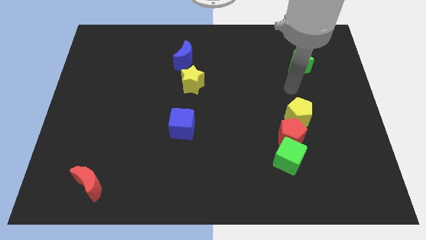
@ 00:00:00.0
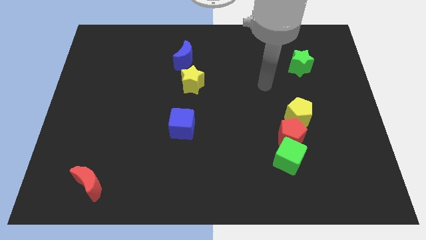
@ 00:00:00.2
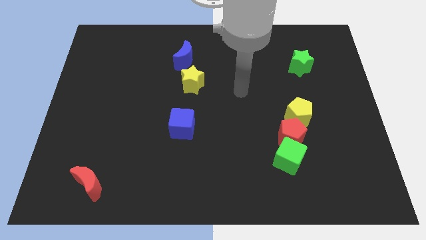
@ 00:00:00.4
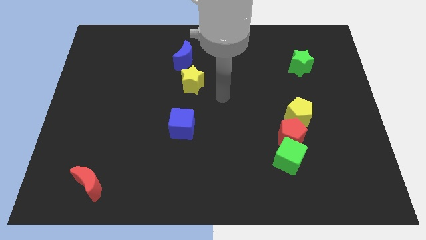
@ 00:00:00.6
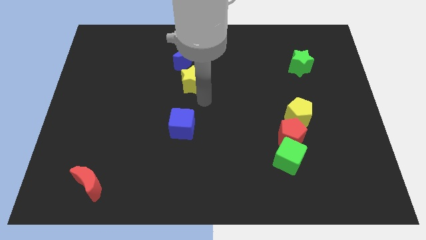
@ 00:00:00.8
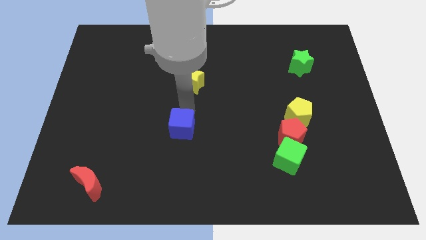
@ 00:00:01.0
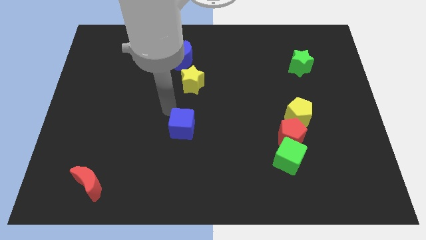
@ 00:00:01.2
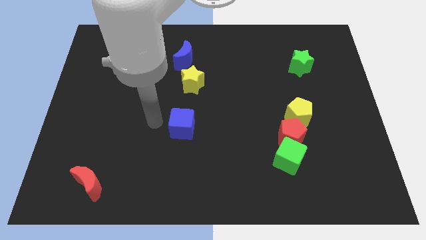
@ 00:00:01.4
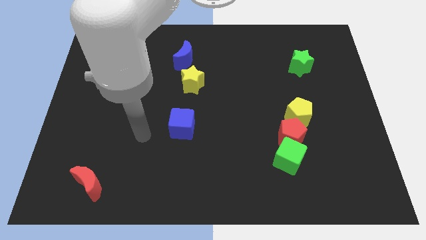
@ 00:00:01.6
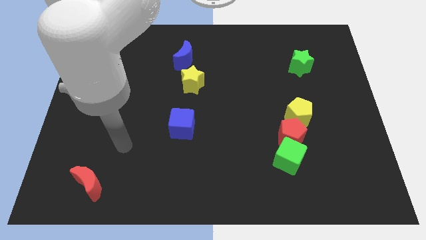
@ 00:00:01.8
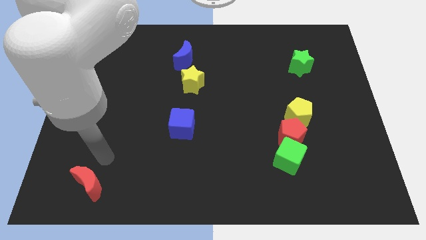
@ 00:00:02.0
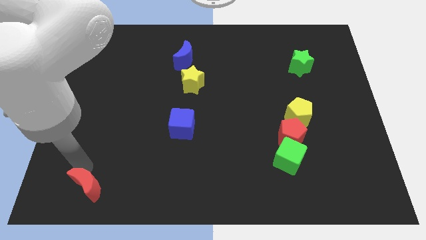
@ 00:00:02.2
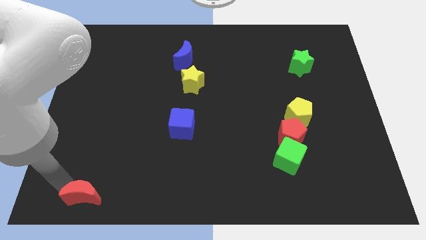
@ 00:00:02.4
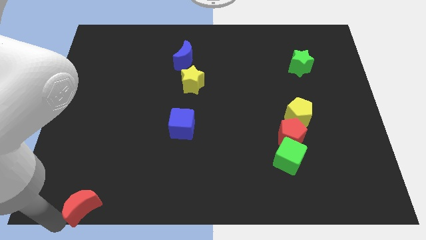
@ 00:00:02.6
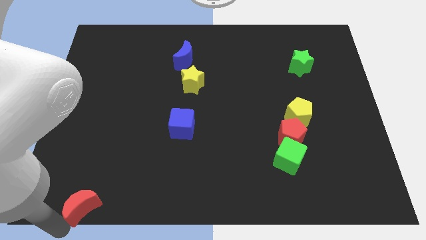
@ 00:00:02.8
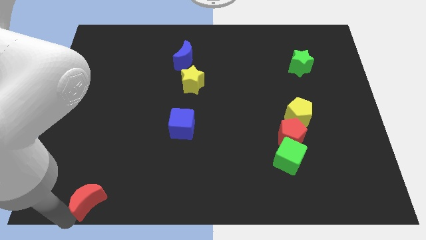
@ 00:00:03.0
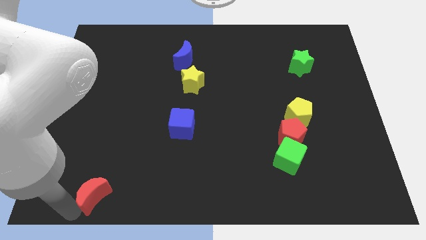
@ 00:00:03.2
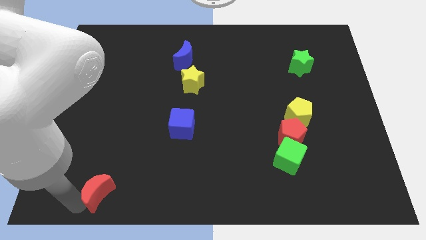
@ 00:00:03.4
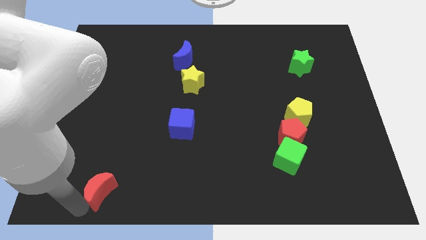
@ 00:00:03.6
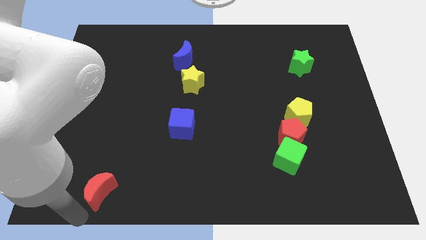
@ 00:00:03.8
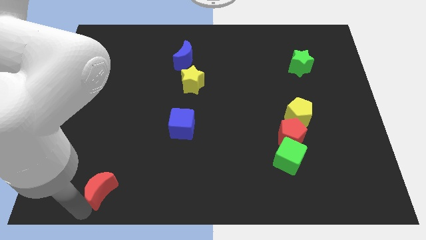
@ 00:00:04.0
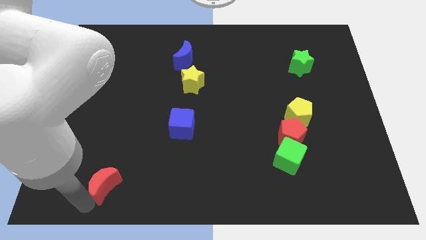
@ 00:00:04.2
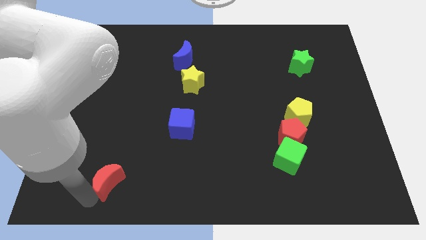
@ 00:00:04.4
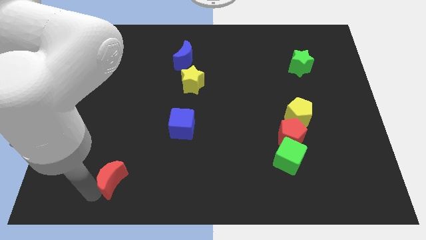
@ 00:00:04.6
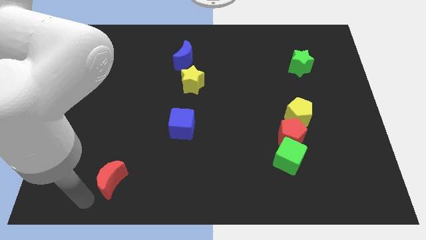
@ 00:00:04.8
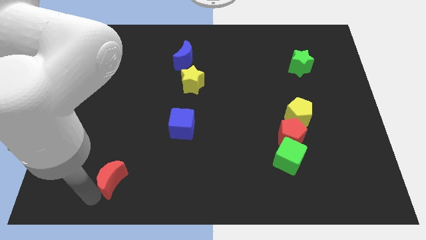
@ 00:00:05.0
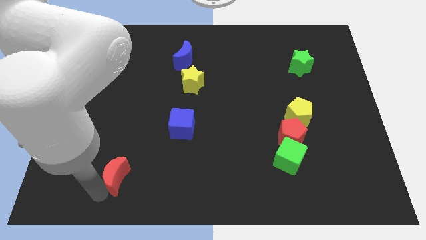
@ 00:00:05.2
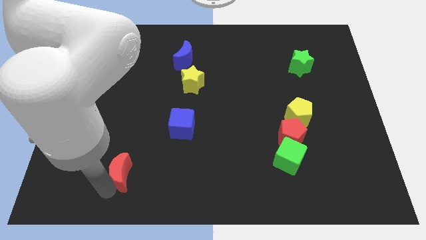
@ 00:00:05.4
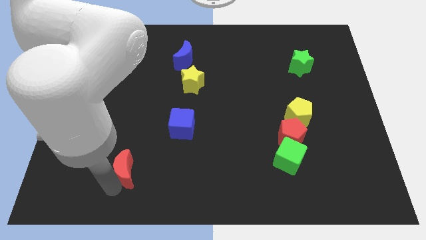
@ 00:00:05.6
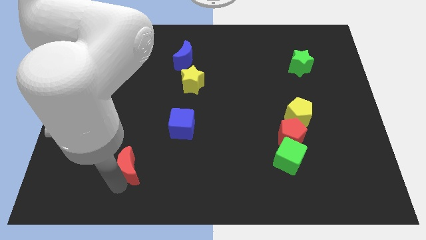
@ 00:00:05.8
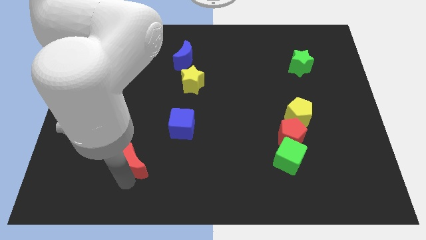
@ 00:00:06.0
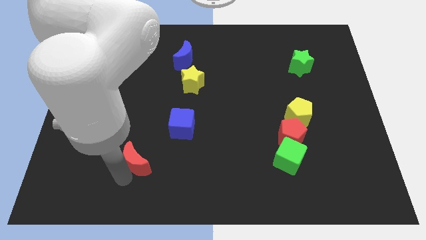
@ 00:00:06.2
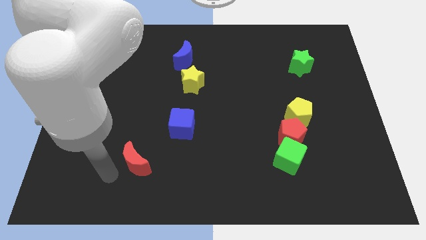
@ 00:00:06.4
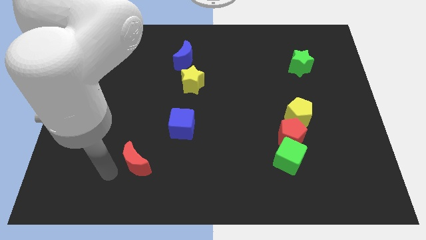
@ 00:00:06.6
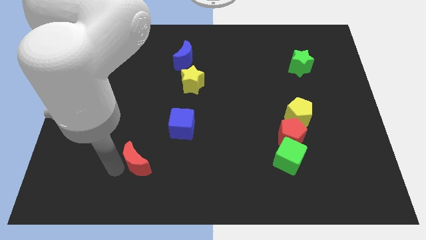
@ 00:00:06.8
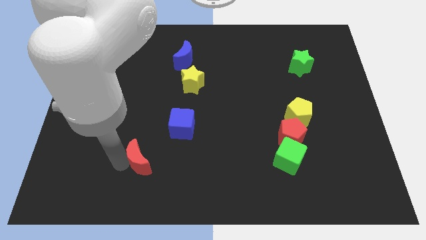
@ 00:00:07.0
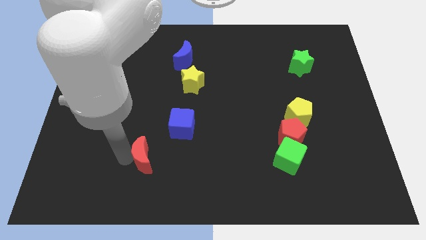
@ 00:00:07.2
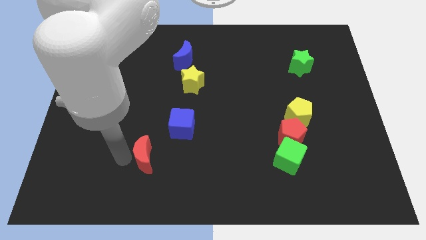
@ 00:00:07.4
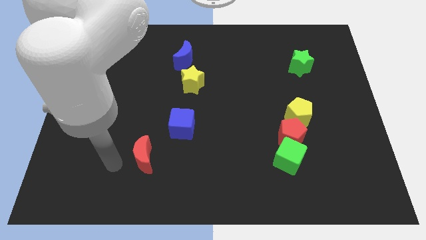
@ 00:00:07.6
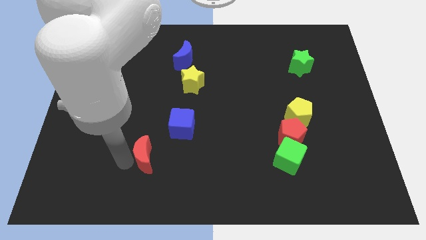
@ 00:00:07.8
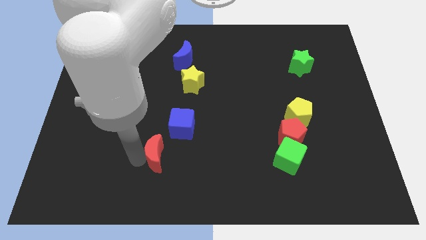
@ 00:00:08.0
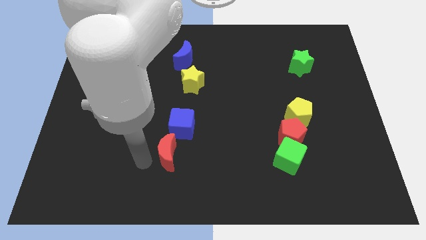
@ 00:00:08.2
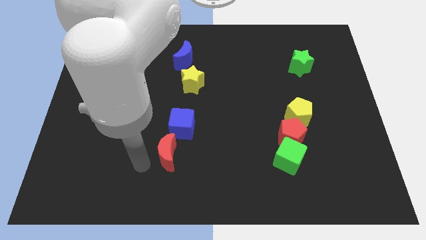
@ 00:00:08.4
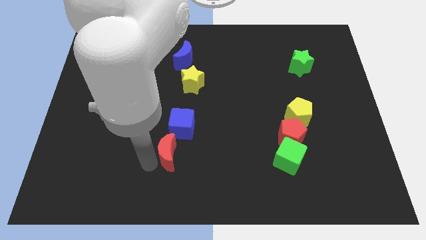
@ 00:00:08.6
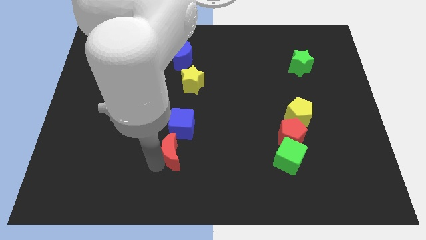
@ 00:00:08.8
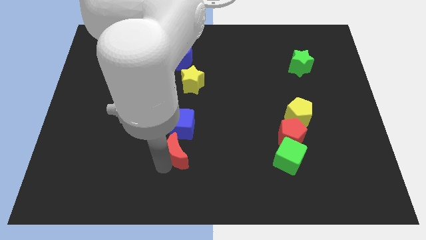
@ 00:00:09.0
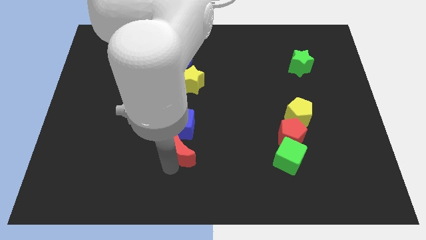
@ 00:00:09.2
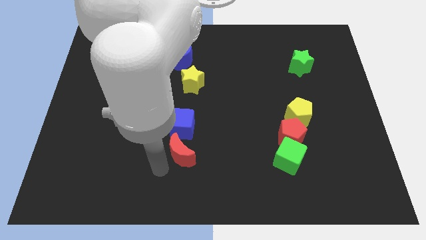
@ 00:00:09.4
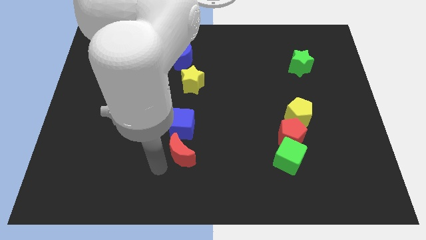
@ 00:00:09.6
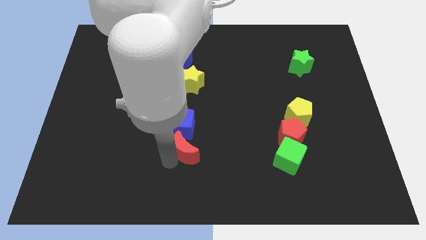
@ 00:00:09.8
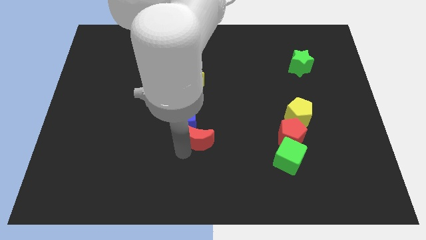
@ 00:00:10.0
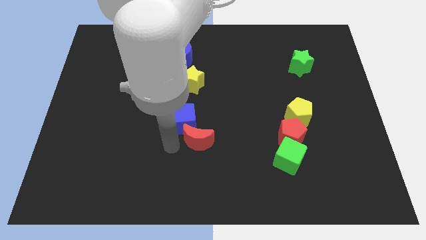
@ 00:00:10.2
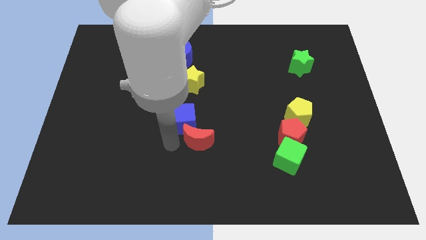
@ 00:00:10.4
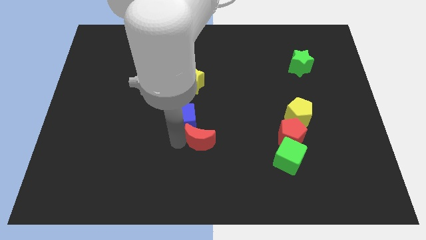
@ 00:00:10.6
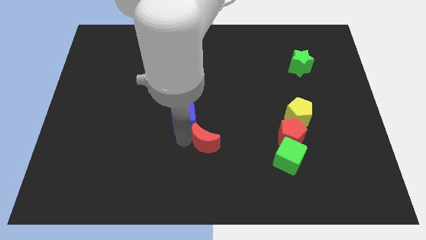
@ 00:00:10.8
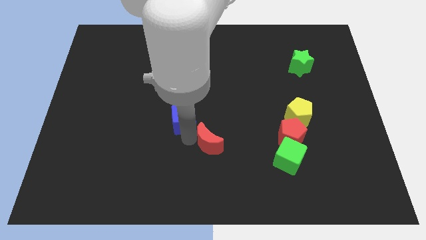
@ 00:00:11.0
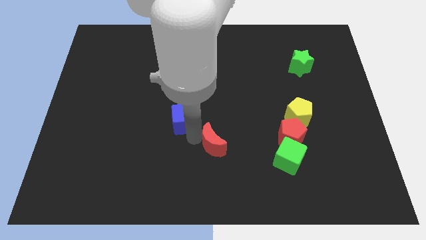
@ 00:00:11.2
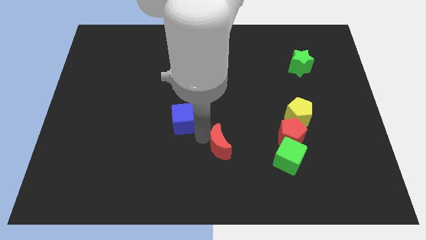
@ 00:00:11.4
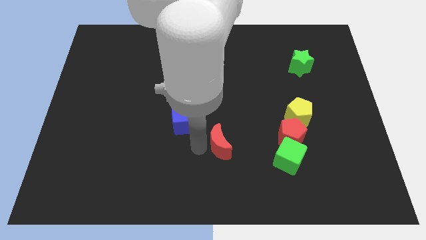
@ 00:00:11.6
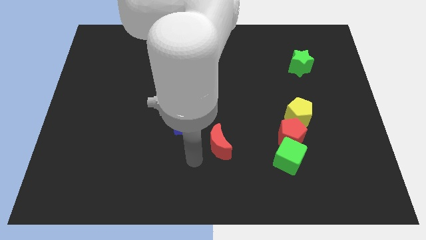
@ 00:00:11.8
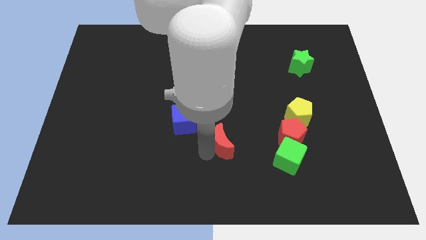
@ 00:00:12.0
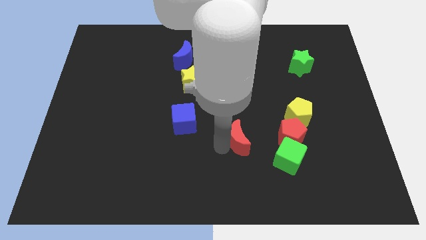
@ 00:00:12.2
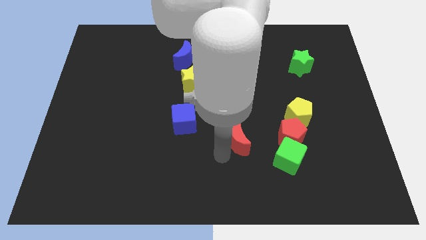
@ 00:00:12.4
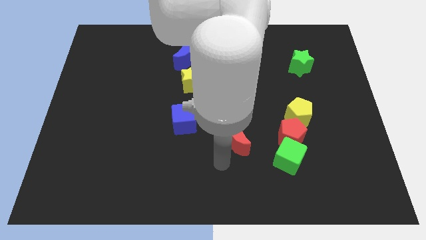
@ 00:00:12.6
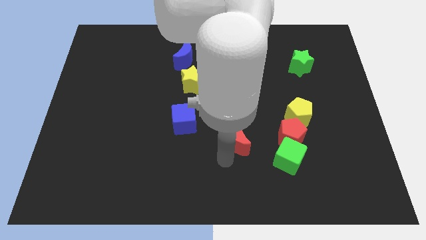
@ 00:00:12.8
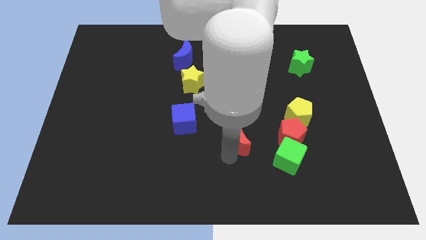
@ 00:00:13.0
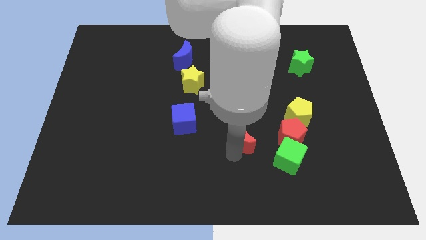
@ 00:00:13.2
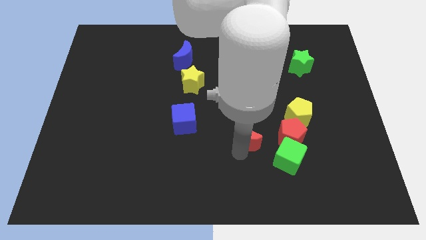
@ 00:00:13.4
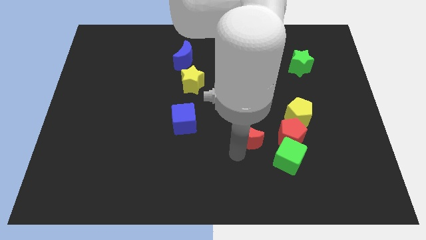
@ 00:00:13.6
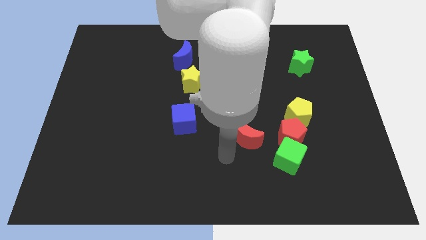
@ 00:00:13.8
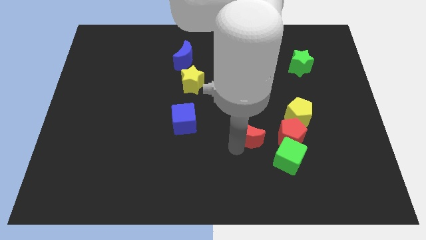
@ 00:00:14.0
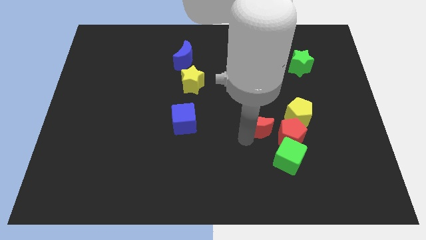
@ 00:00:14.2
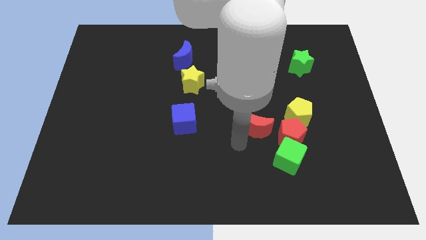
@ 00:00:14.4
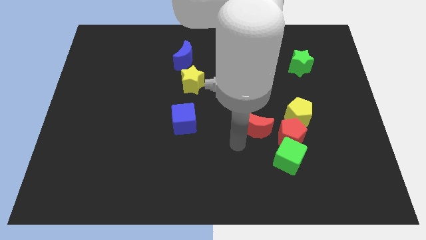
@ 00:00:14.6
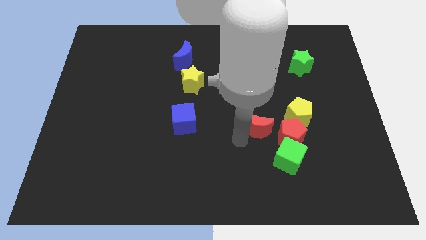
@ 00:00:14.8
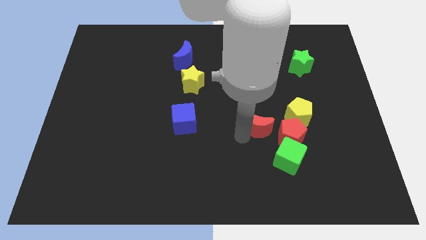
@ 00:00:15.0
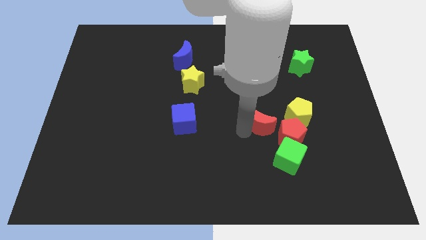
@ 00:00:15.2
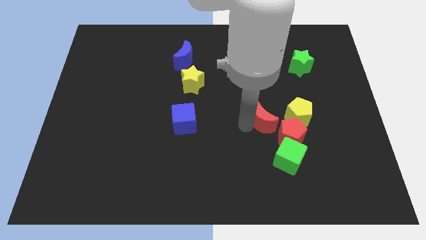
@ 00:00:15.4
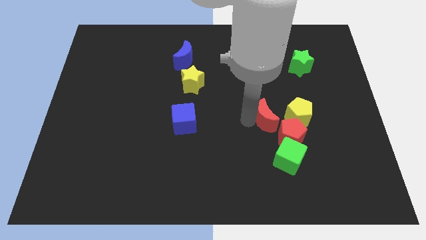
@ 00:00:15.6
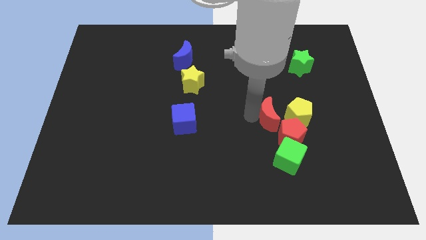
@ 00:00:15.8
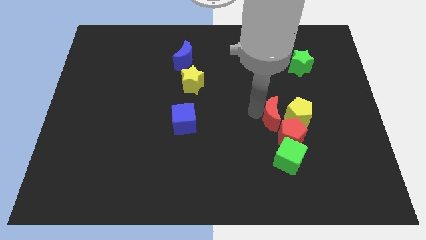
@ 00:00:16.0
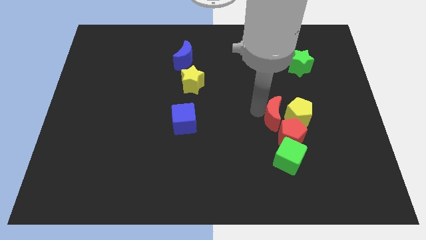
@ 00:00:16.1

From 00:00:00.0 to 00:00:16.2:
move the red moon close to the yellow pentagon
